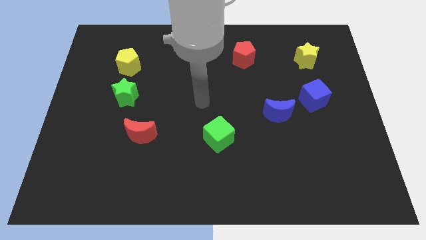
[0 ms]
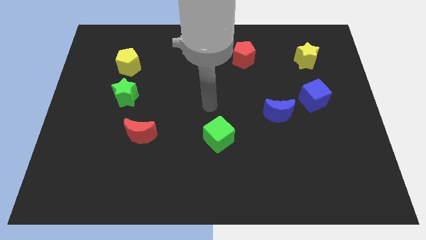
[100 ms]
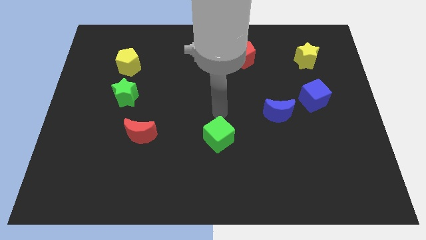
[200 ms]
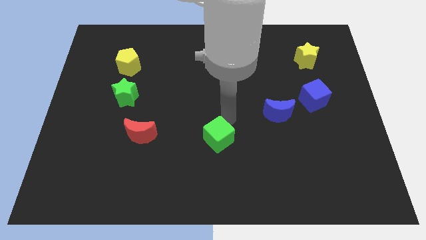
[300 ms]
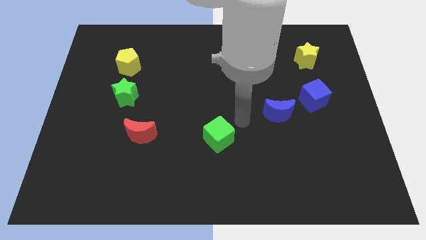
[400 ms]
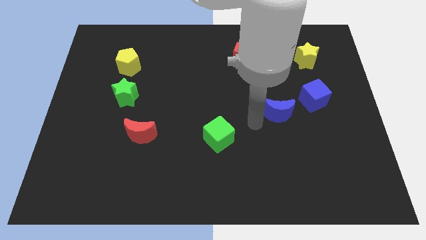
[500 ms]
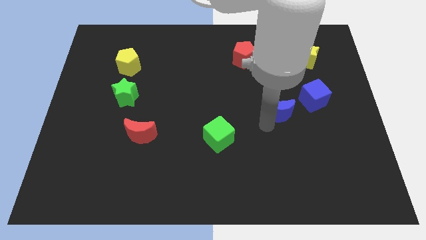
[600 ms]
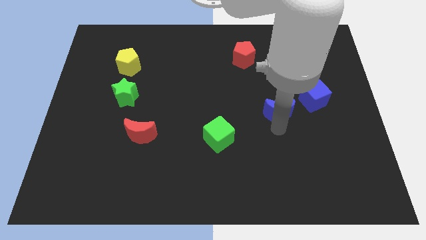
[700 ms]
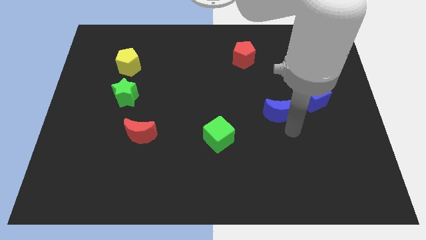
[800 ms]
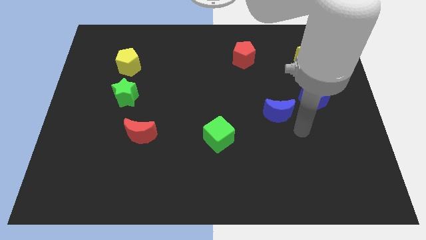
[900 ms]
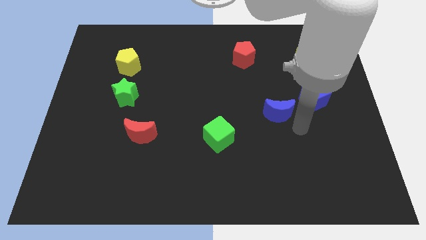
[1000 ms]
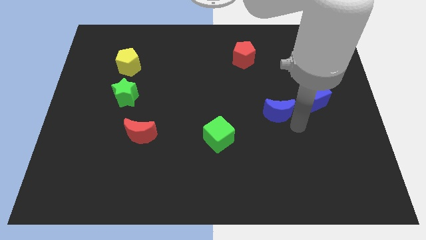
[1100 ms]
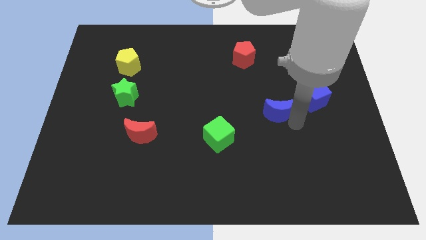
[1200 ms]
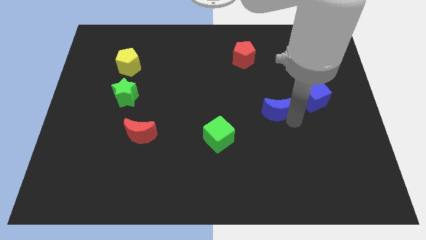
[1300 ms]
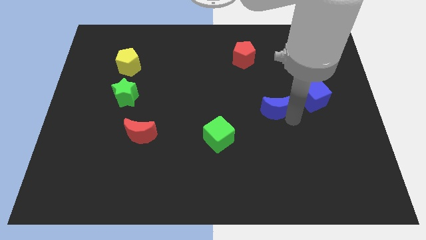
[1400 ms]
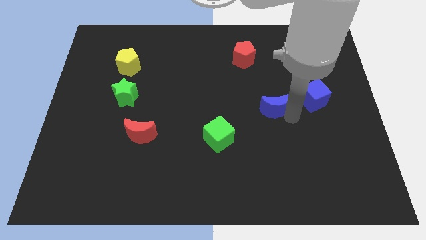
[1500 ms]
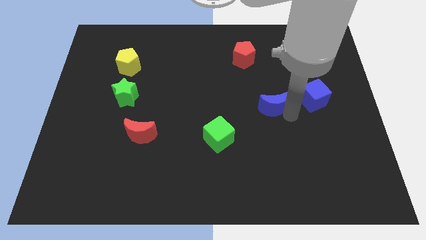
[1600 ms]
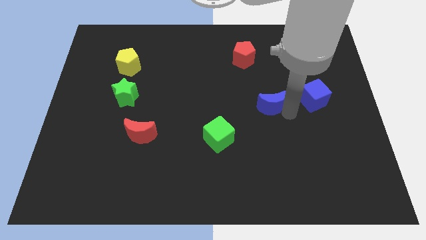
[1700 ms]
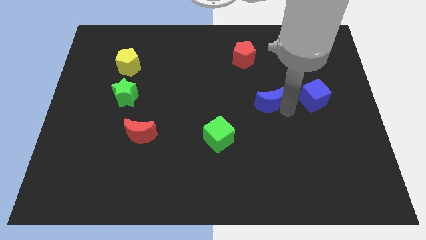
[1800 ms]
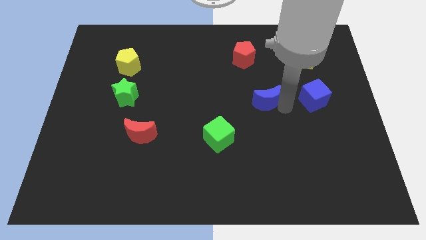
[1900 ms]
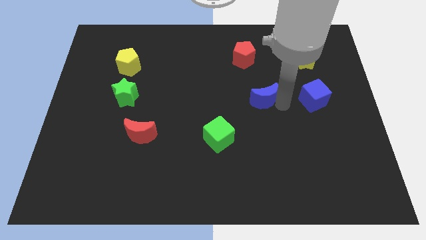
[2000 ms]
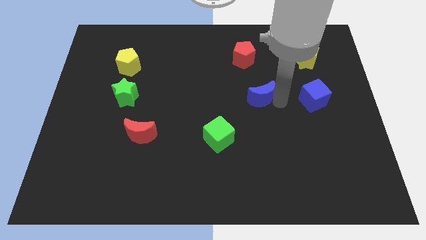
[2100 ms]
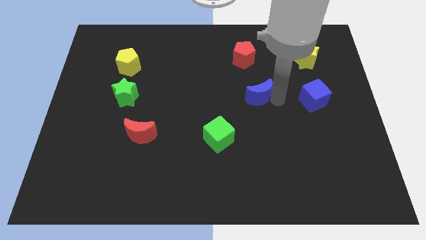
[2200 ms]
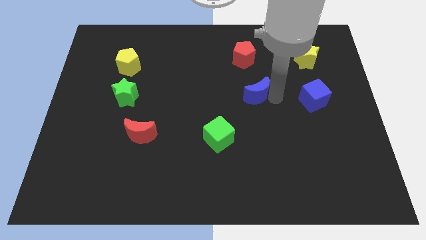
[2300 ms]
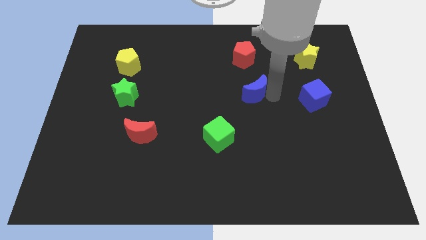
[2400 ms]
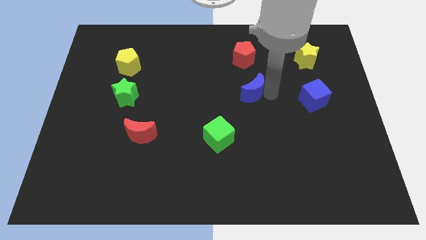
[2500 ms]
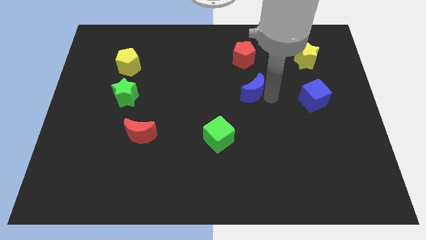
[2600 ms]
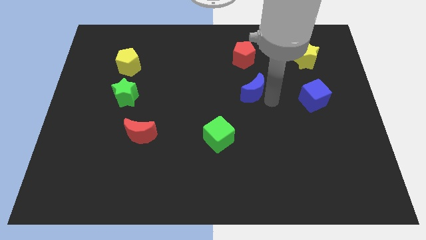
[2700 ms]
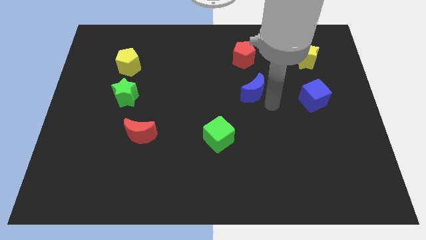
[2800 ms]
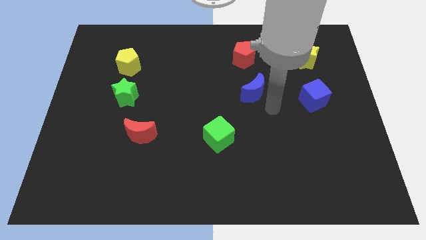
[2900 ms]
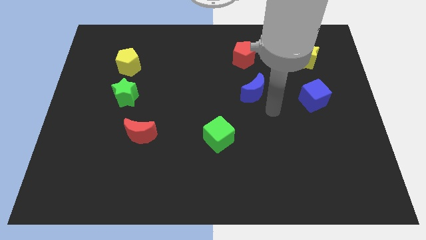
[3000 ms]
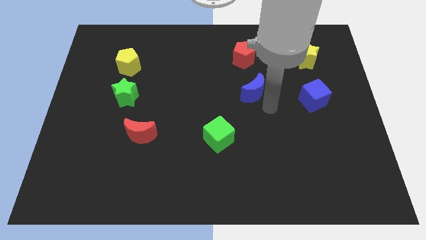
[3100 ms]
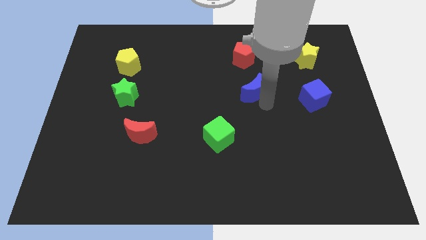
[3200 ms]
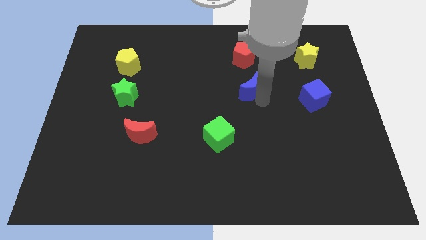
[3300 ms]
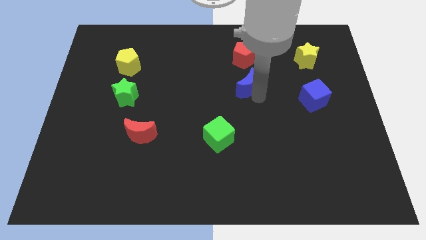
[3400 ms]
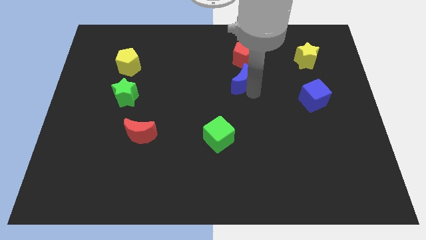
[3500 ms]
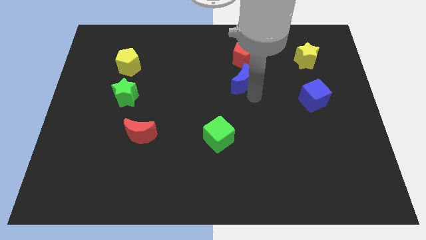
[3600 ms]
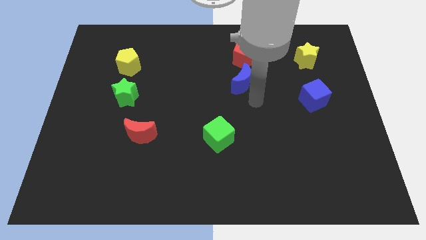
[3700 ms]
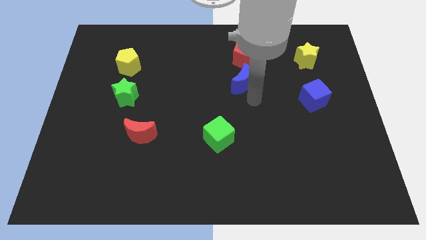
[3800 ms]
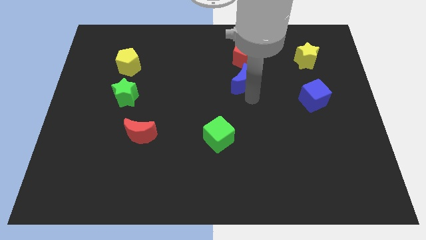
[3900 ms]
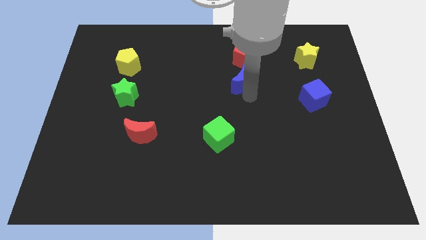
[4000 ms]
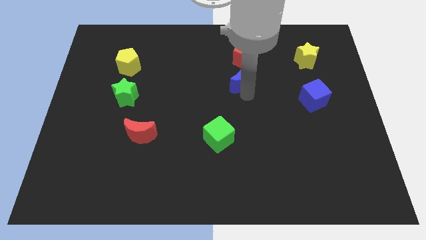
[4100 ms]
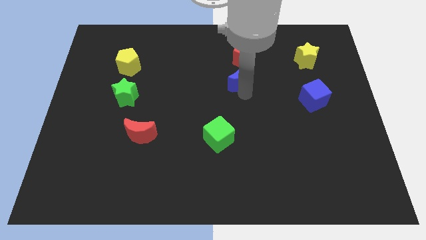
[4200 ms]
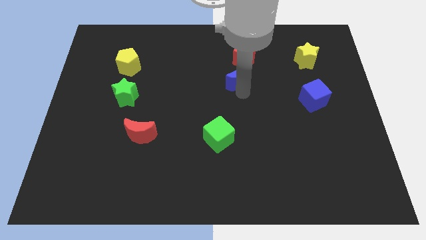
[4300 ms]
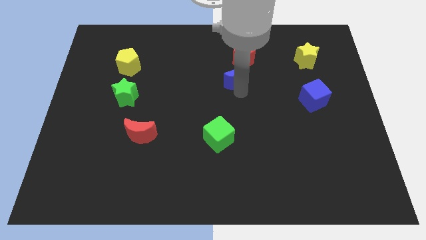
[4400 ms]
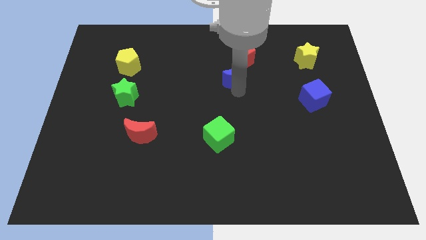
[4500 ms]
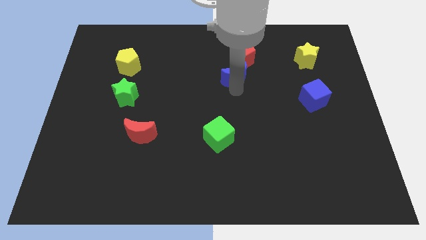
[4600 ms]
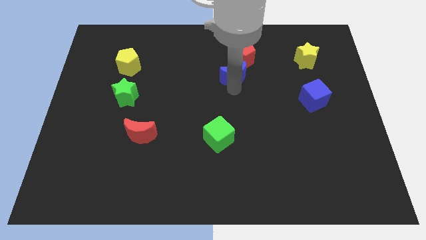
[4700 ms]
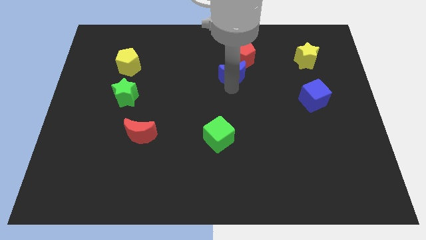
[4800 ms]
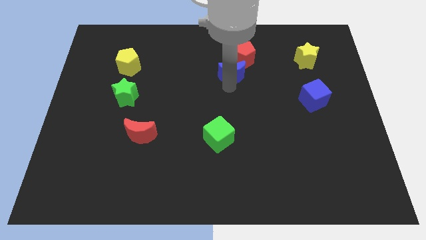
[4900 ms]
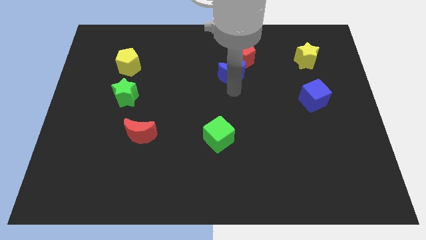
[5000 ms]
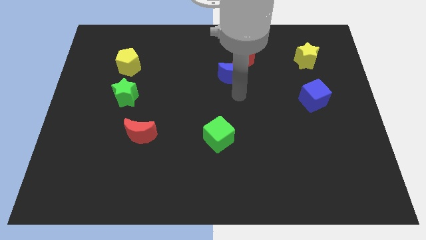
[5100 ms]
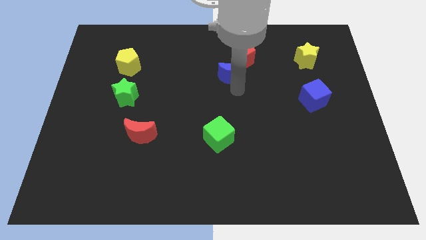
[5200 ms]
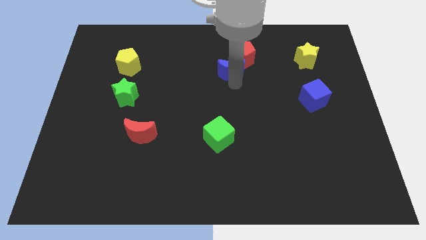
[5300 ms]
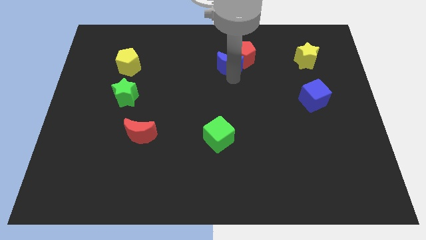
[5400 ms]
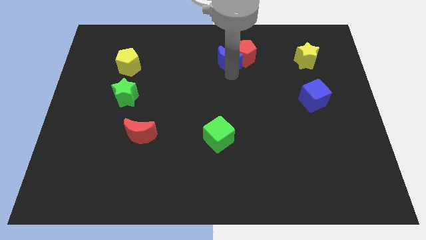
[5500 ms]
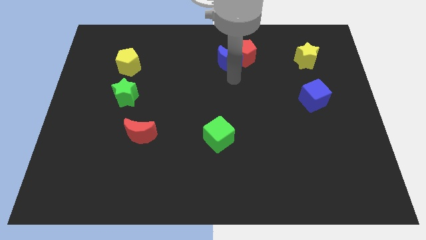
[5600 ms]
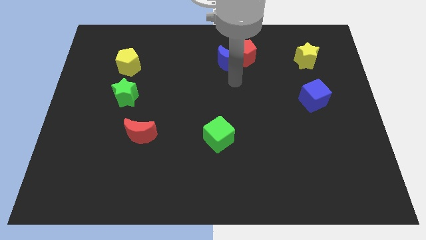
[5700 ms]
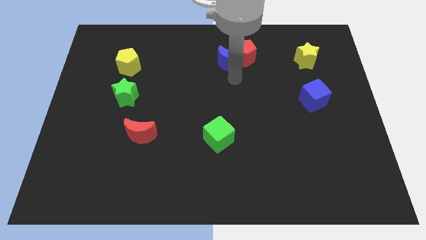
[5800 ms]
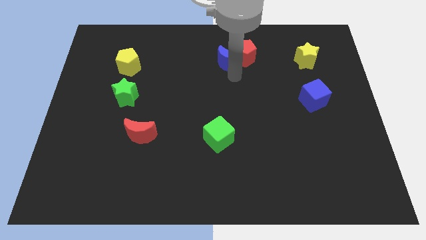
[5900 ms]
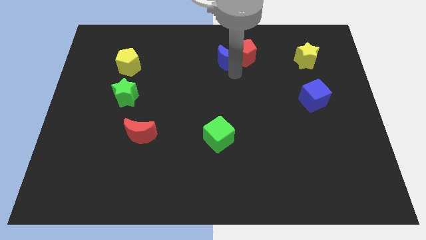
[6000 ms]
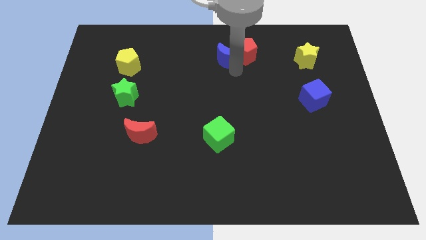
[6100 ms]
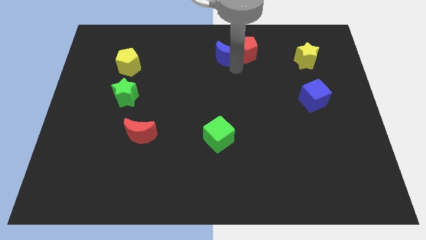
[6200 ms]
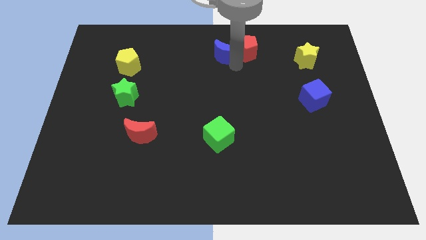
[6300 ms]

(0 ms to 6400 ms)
move the blue moon to the top

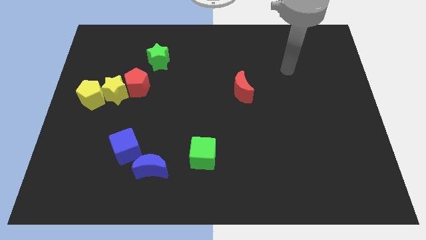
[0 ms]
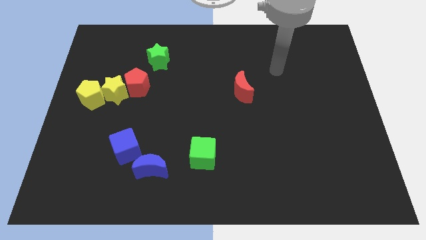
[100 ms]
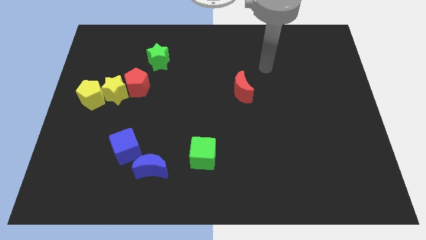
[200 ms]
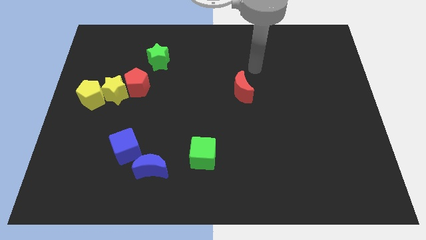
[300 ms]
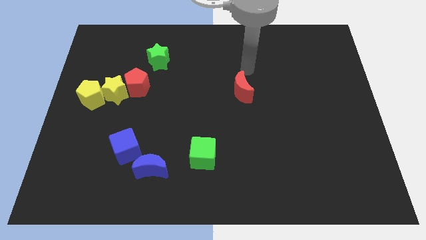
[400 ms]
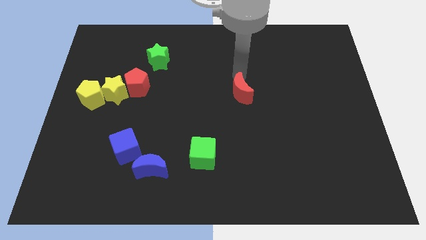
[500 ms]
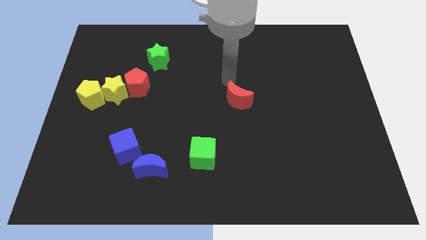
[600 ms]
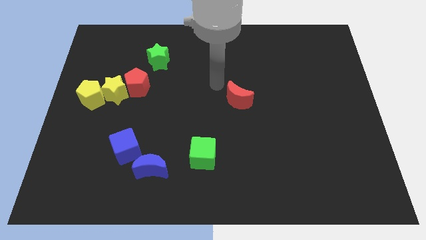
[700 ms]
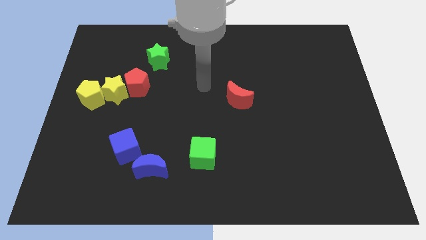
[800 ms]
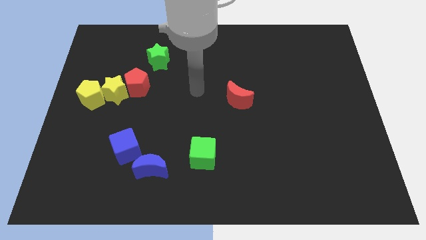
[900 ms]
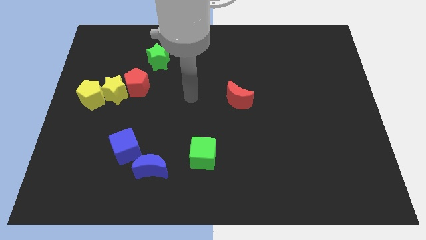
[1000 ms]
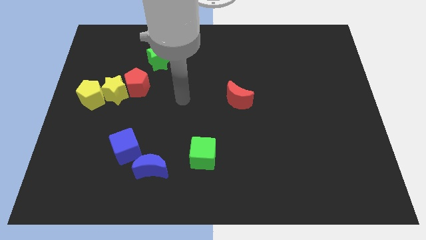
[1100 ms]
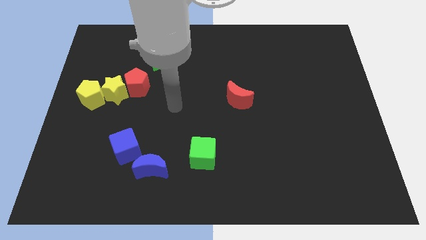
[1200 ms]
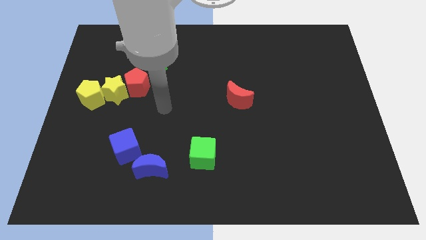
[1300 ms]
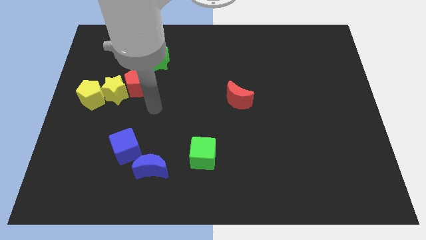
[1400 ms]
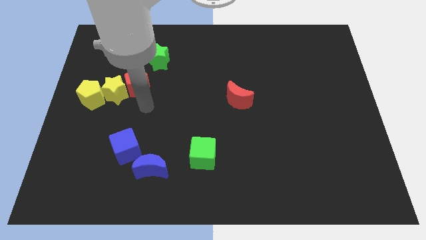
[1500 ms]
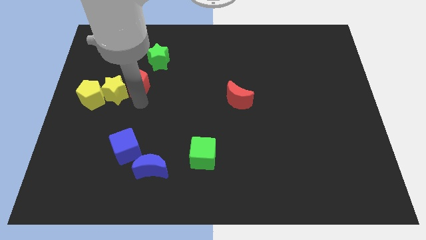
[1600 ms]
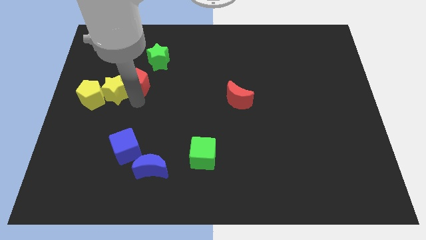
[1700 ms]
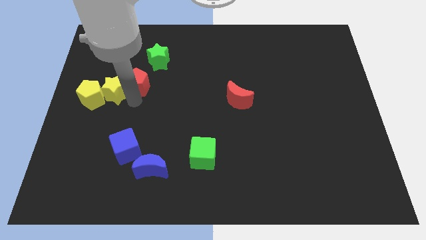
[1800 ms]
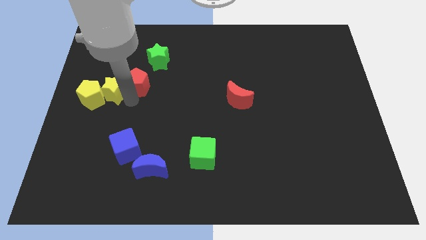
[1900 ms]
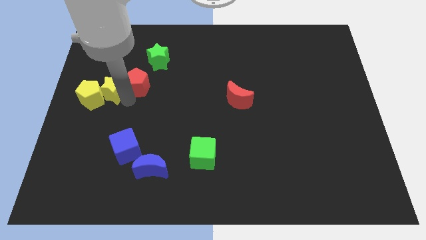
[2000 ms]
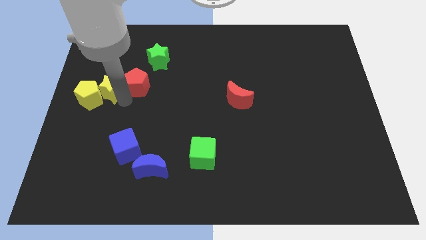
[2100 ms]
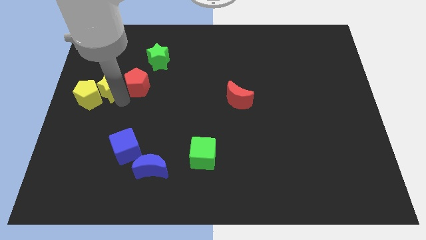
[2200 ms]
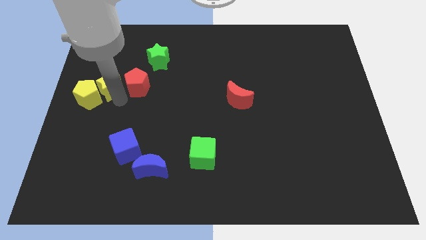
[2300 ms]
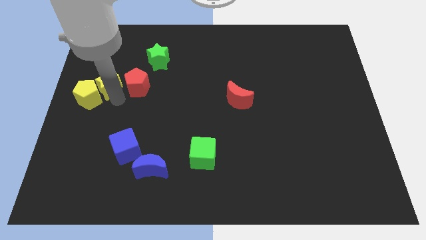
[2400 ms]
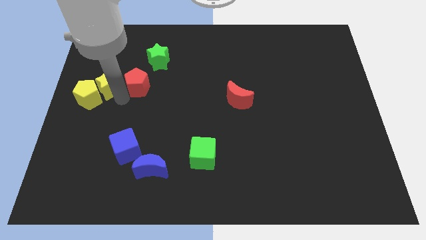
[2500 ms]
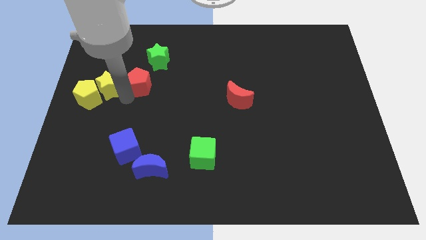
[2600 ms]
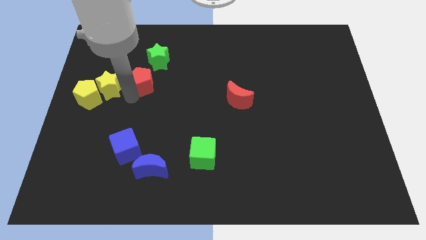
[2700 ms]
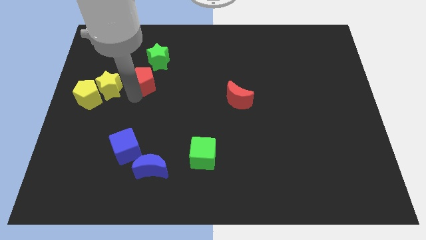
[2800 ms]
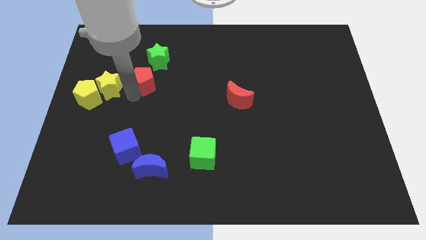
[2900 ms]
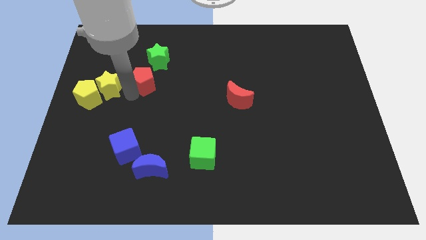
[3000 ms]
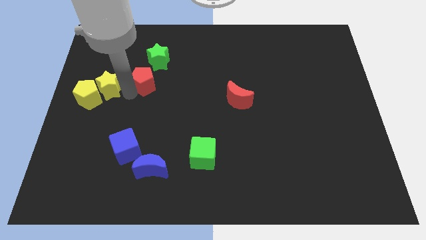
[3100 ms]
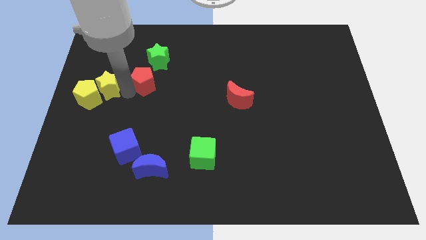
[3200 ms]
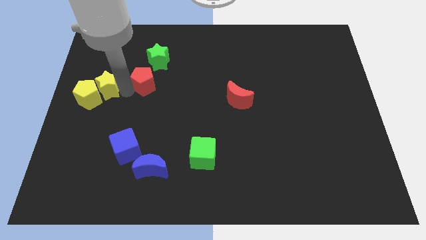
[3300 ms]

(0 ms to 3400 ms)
put the yellow star to the left side of the board
